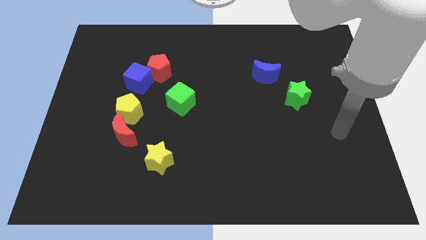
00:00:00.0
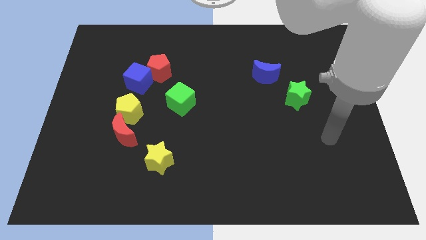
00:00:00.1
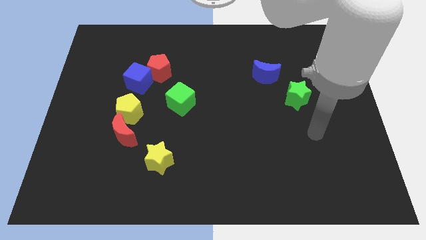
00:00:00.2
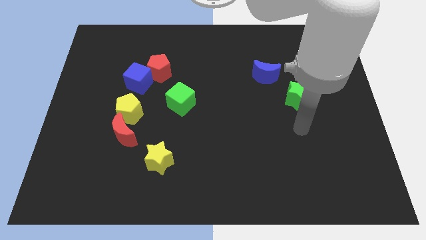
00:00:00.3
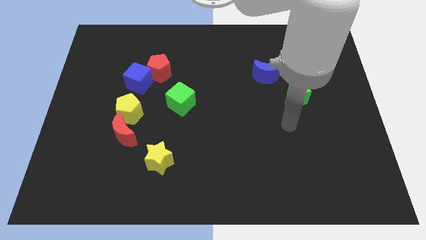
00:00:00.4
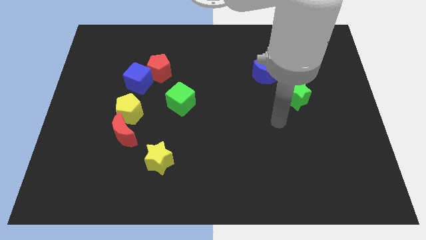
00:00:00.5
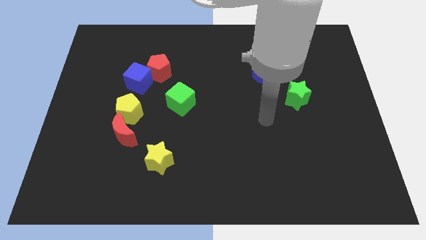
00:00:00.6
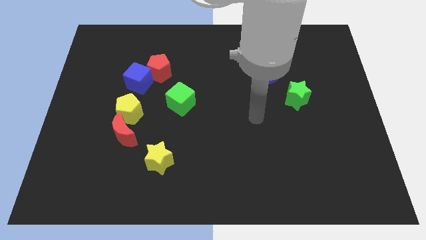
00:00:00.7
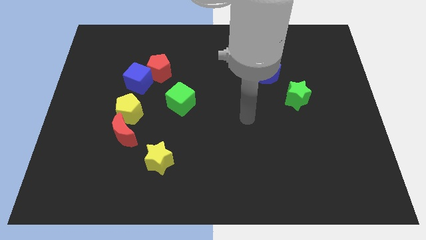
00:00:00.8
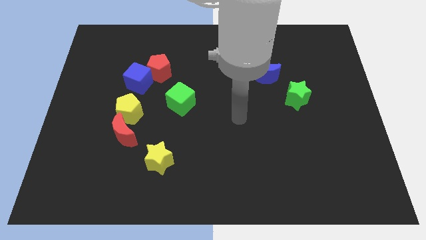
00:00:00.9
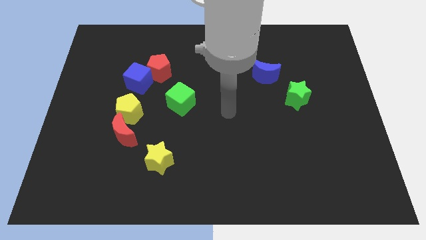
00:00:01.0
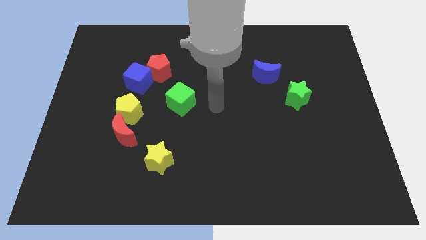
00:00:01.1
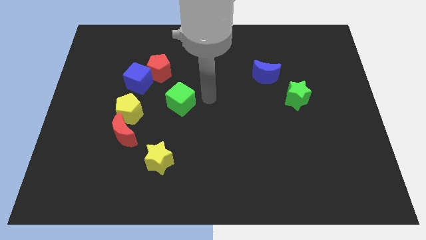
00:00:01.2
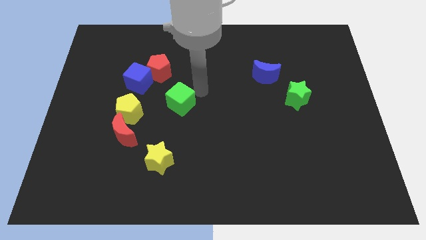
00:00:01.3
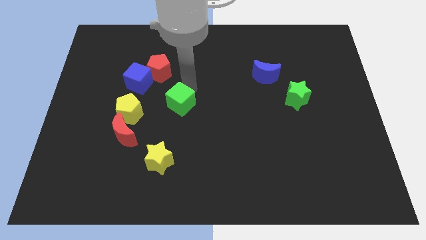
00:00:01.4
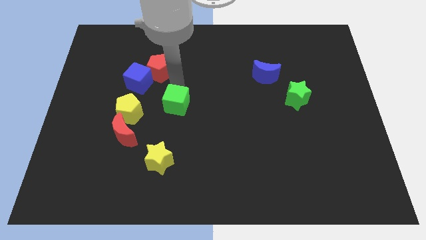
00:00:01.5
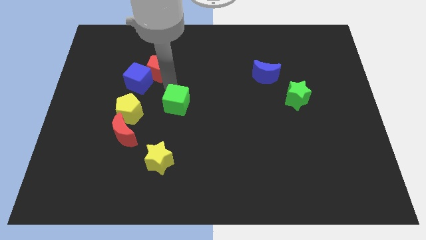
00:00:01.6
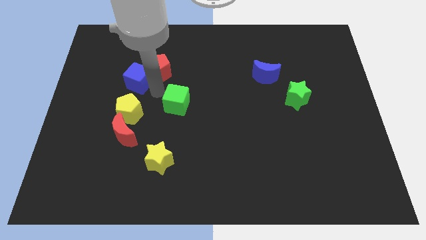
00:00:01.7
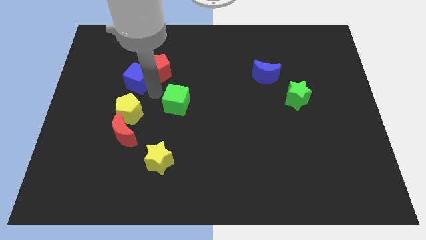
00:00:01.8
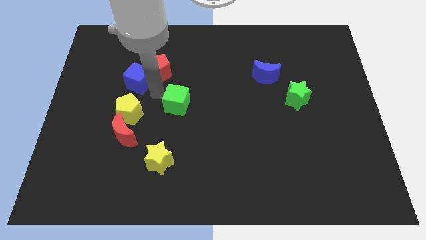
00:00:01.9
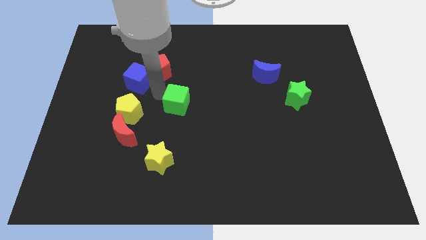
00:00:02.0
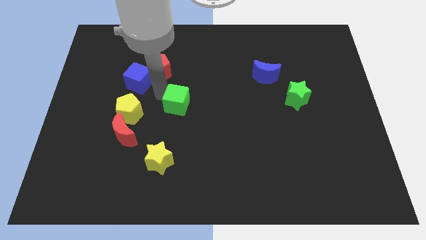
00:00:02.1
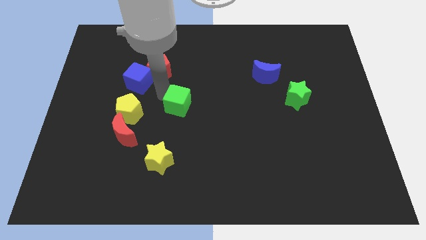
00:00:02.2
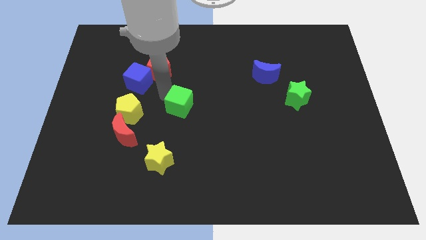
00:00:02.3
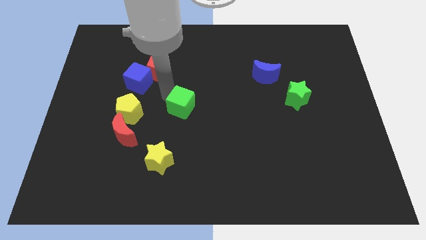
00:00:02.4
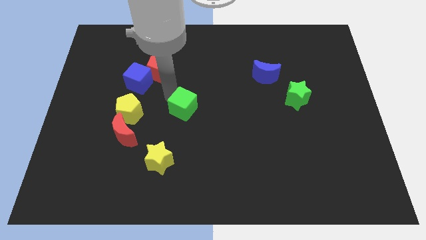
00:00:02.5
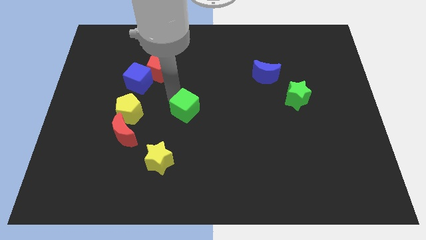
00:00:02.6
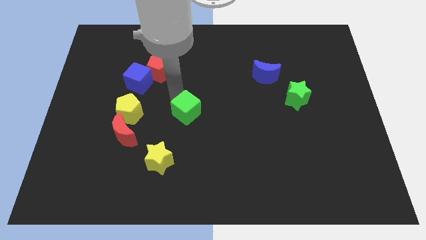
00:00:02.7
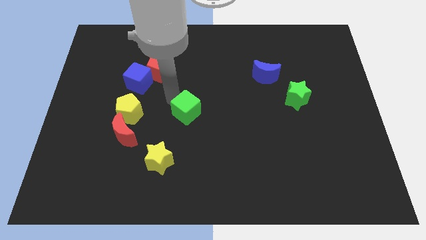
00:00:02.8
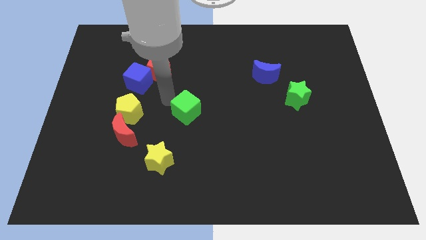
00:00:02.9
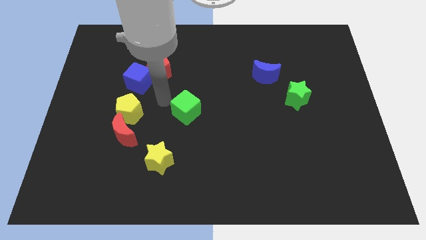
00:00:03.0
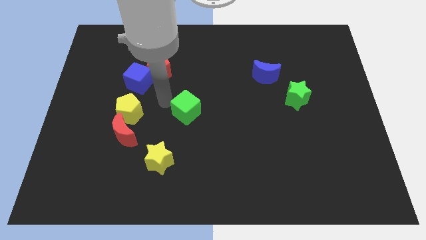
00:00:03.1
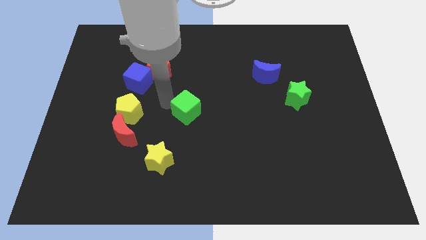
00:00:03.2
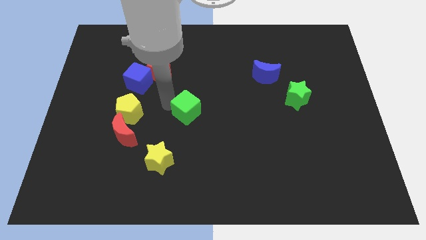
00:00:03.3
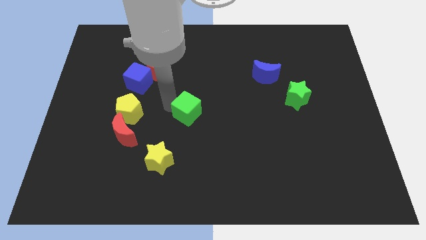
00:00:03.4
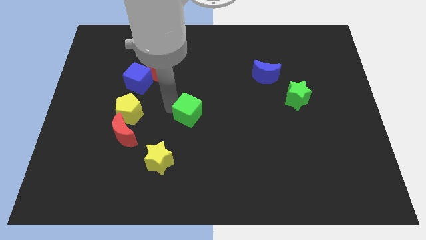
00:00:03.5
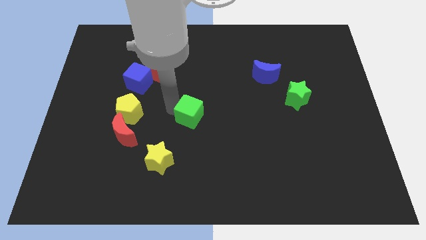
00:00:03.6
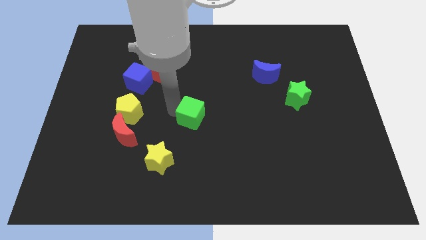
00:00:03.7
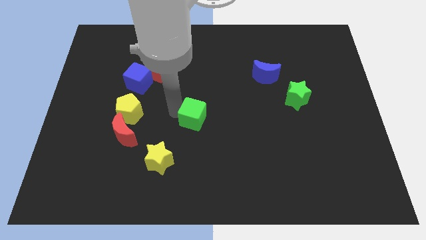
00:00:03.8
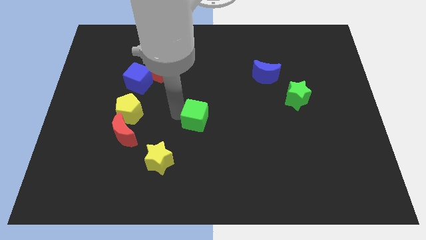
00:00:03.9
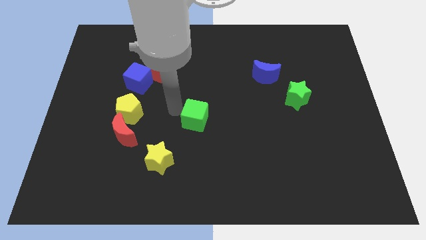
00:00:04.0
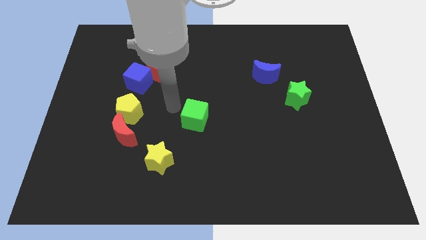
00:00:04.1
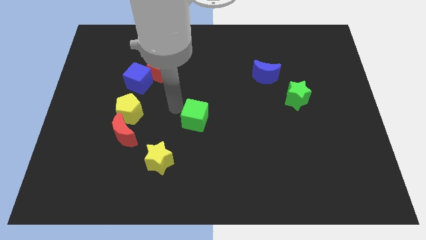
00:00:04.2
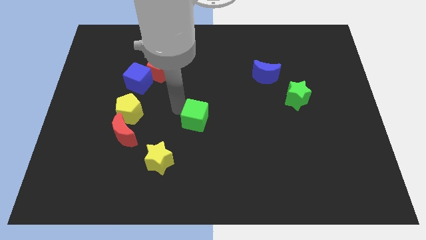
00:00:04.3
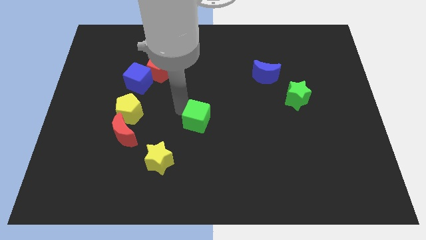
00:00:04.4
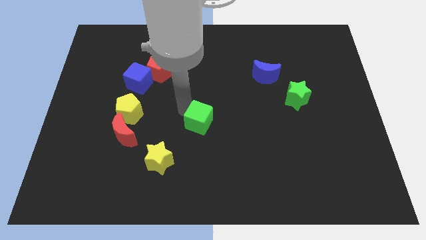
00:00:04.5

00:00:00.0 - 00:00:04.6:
slightly move the green cube downwards and to the right

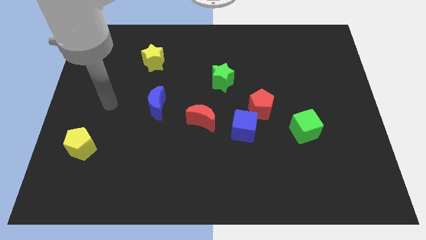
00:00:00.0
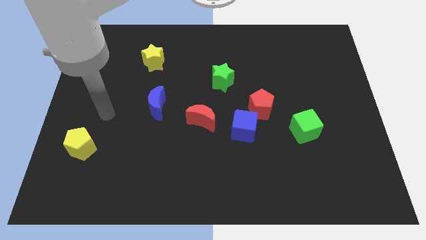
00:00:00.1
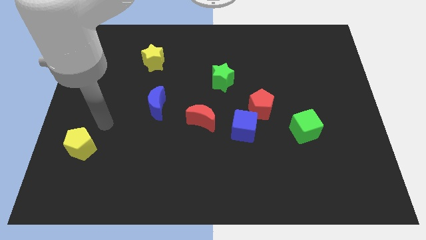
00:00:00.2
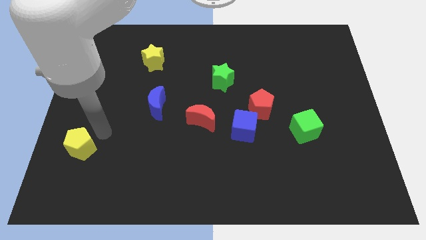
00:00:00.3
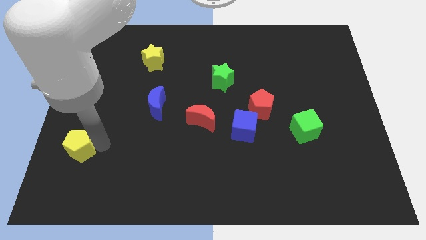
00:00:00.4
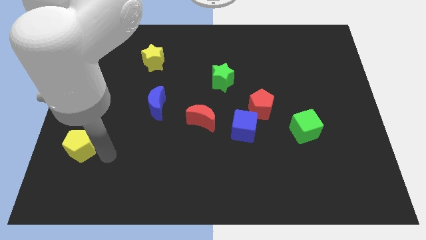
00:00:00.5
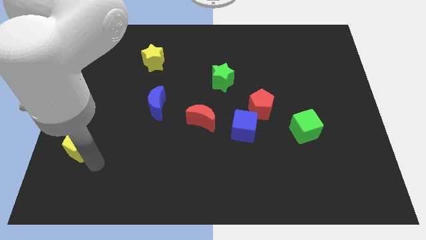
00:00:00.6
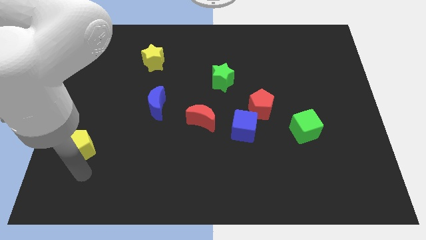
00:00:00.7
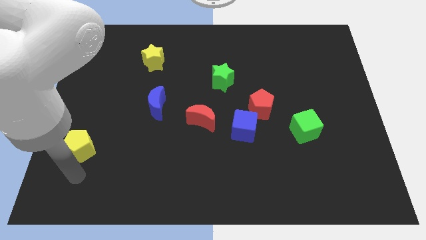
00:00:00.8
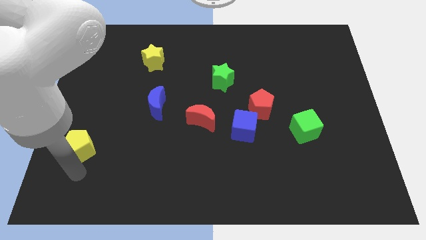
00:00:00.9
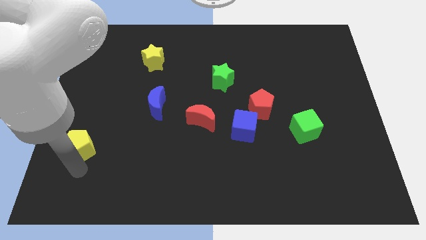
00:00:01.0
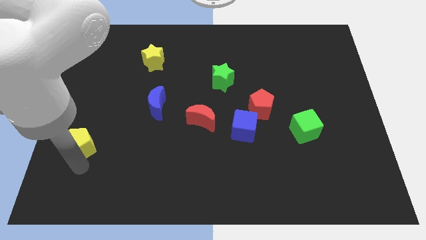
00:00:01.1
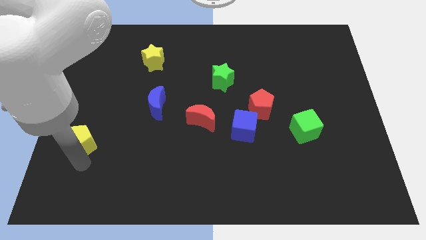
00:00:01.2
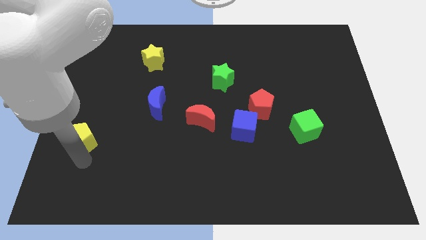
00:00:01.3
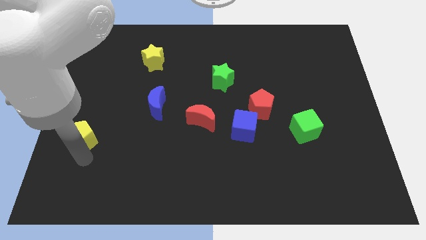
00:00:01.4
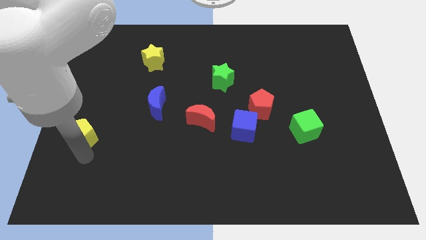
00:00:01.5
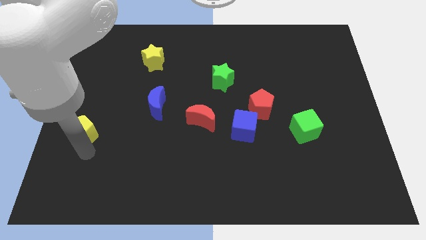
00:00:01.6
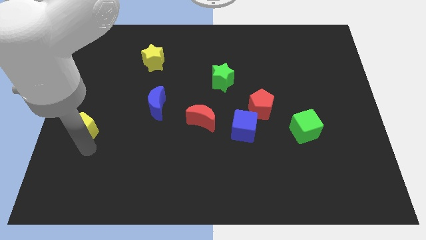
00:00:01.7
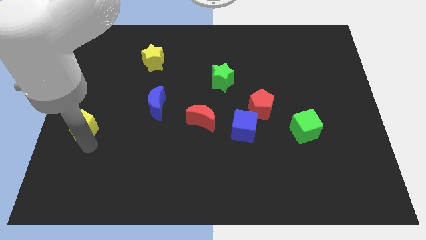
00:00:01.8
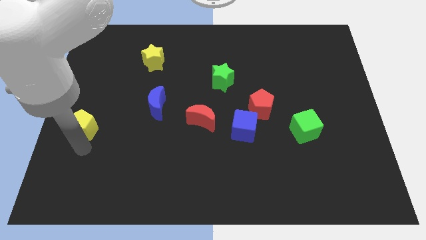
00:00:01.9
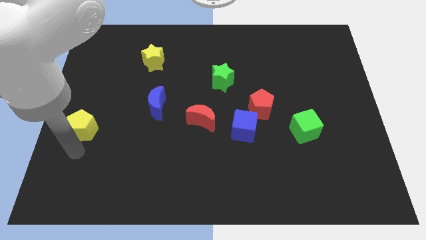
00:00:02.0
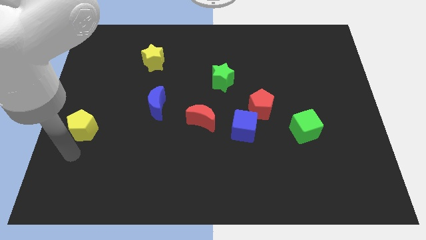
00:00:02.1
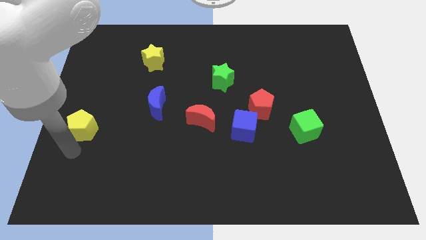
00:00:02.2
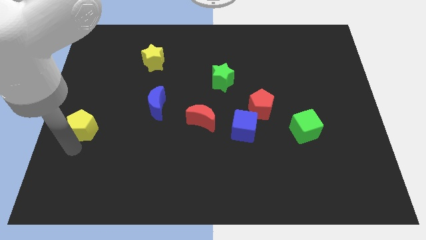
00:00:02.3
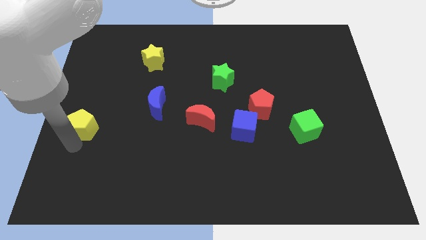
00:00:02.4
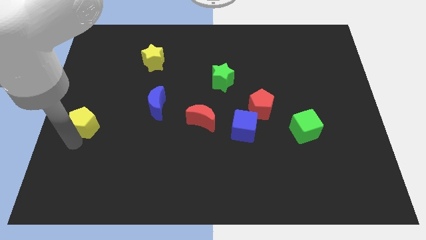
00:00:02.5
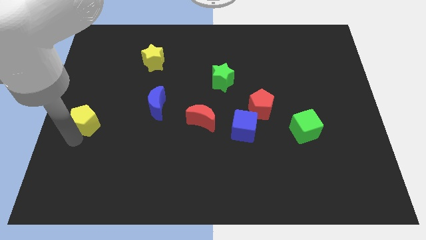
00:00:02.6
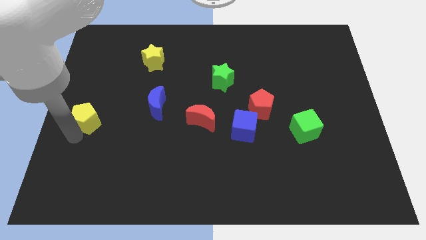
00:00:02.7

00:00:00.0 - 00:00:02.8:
push the yellow pentagon upwards somewhat
